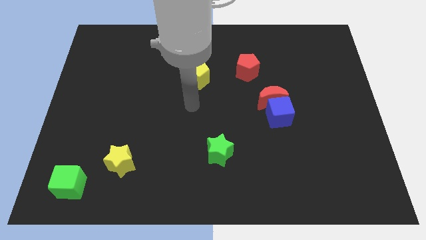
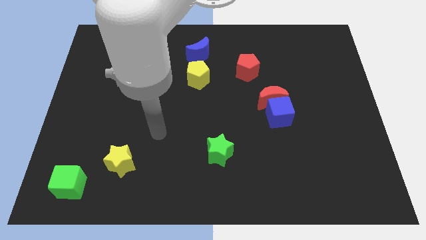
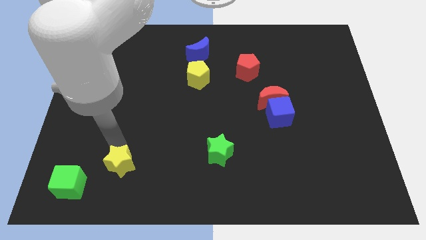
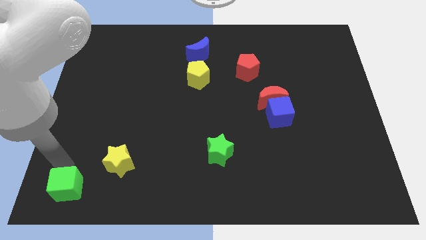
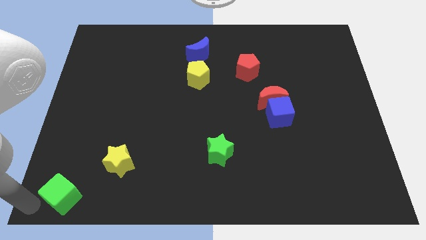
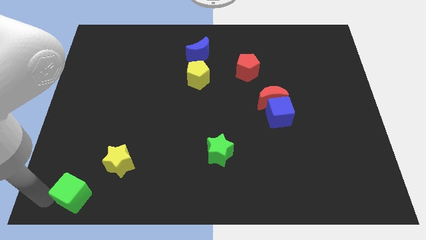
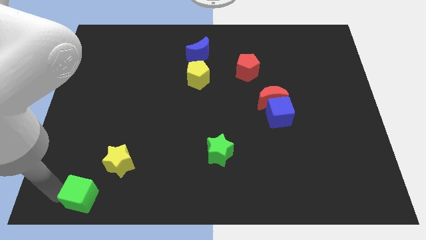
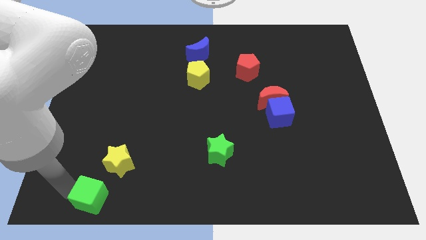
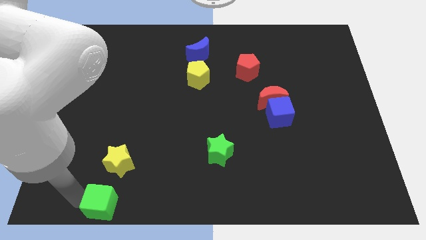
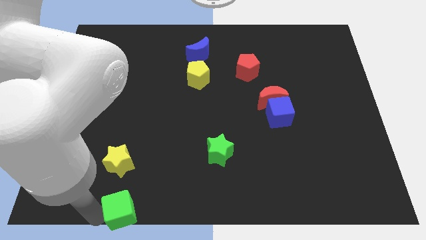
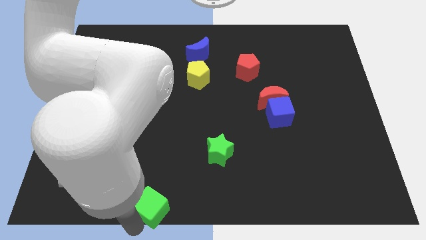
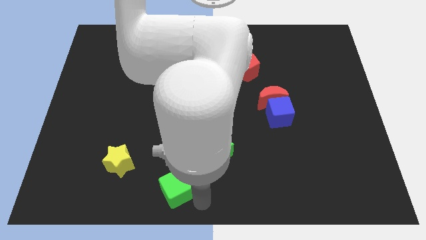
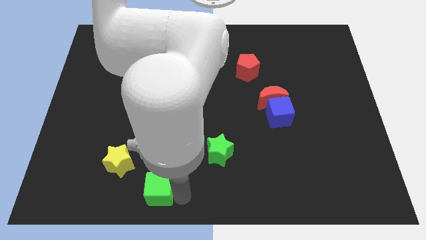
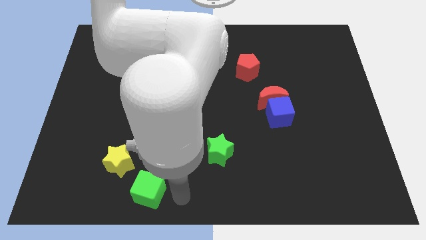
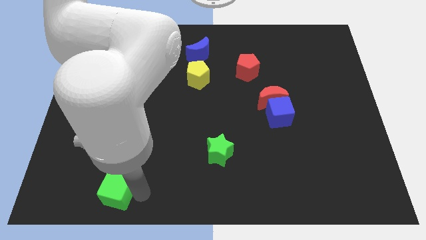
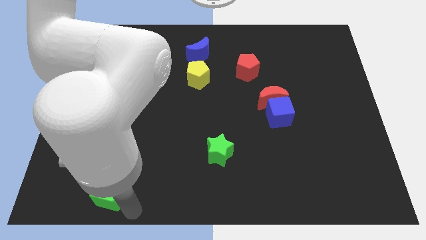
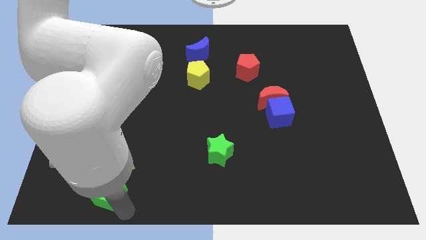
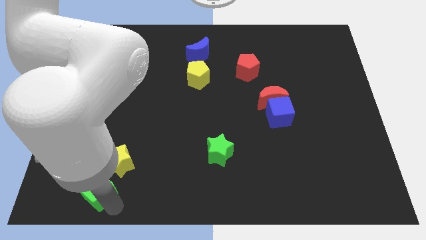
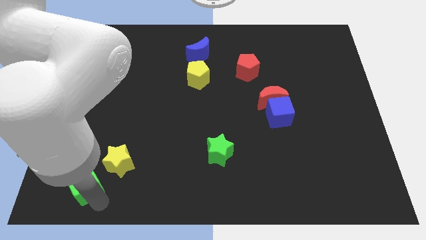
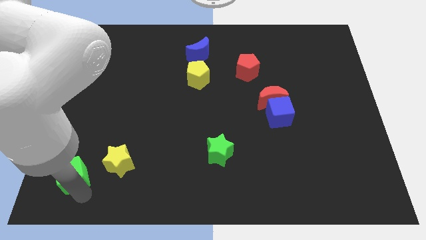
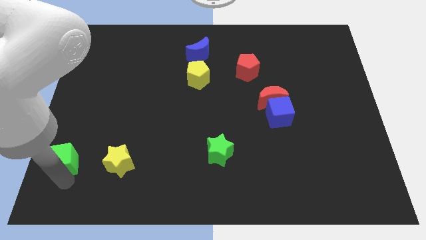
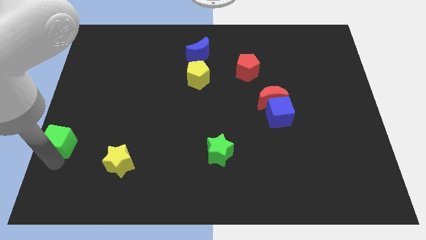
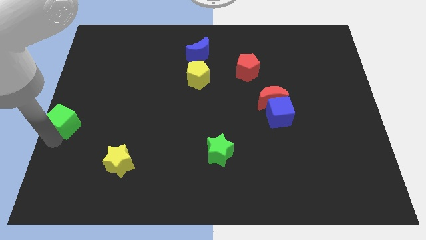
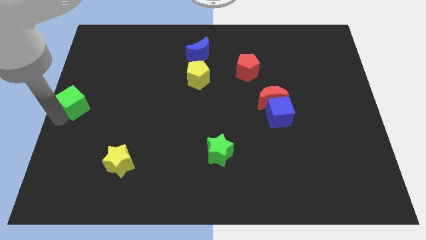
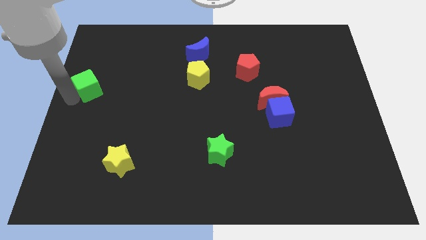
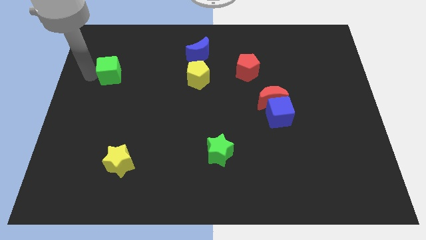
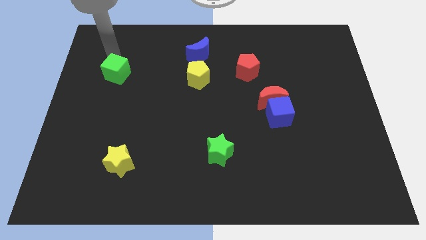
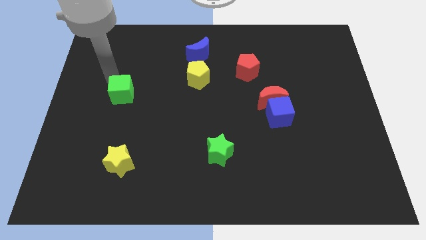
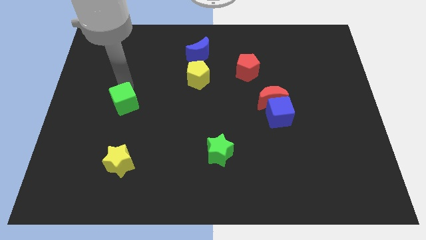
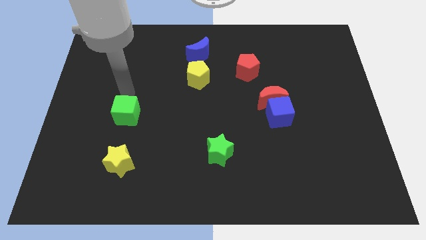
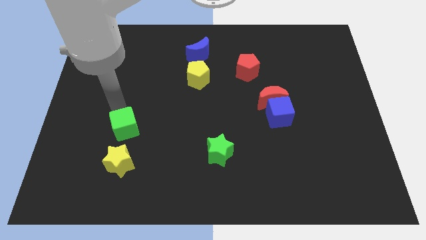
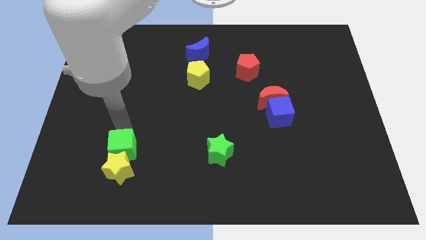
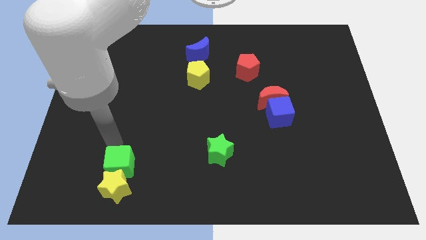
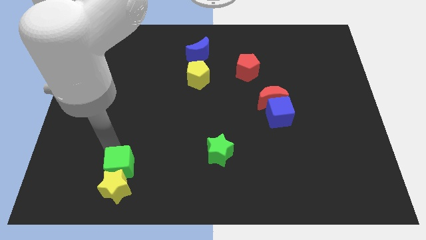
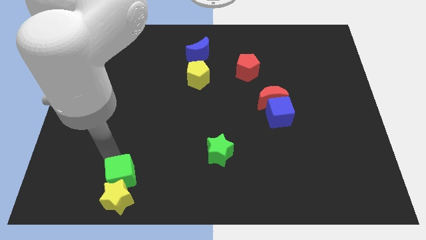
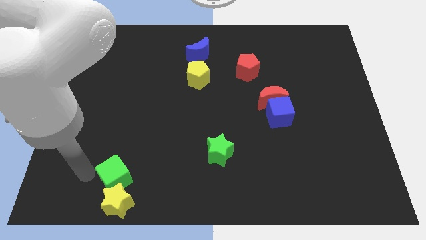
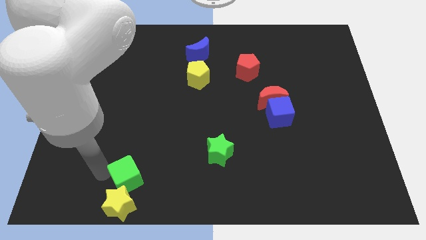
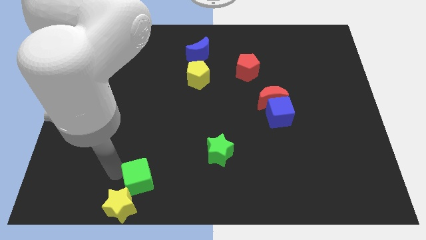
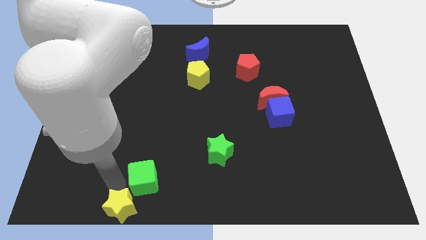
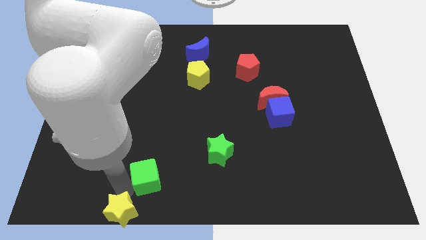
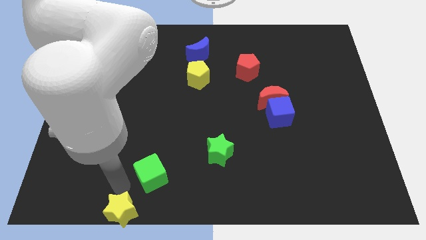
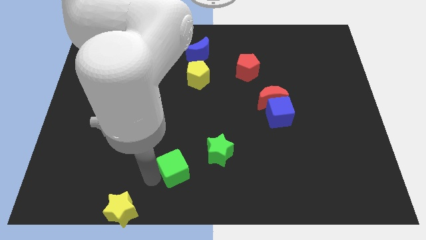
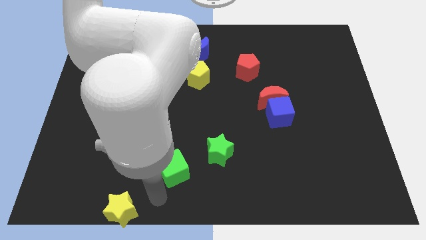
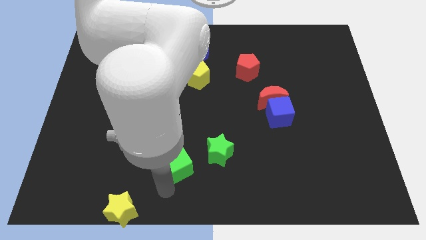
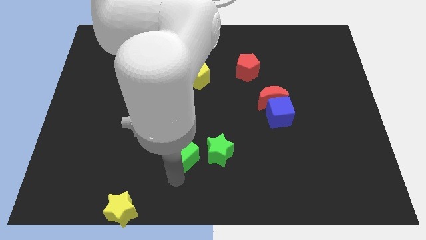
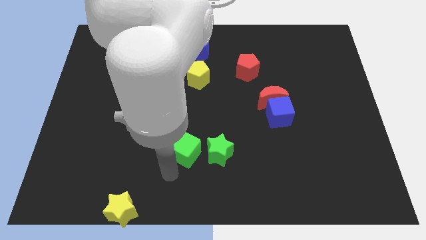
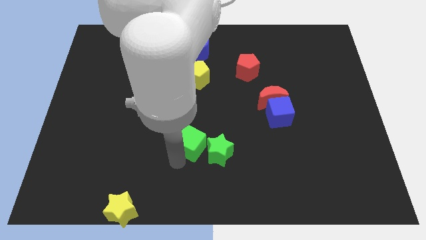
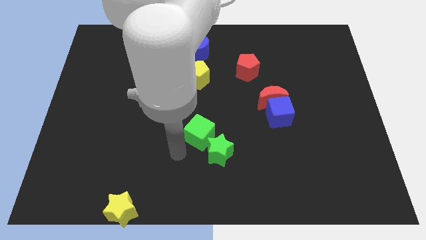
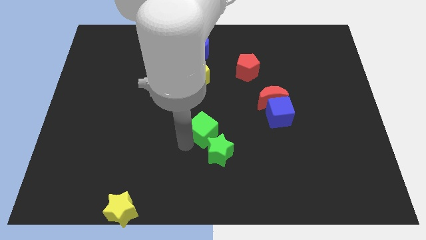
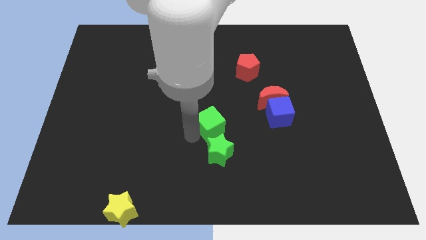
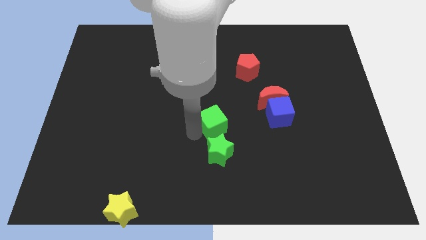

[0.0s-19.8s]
slide the green cube left of the blue cube

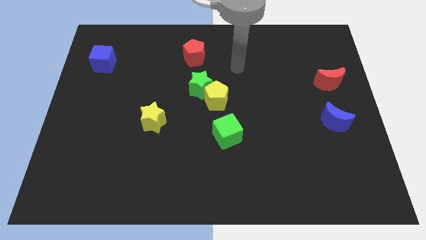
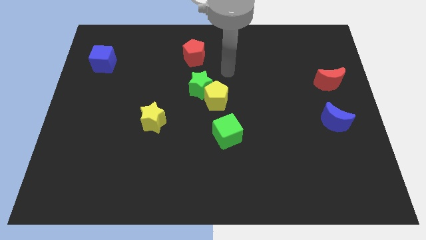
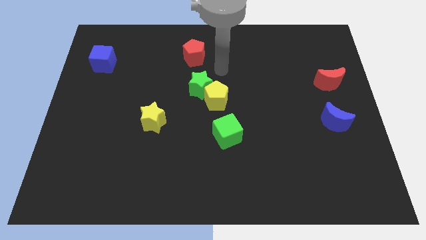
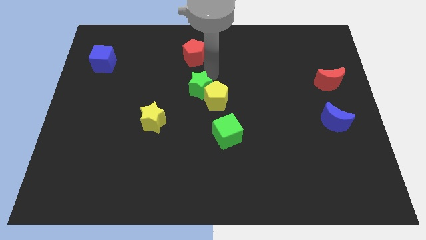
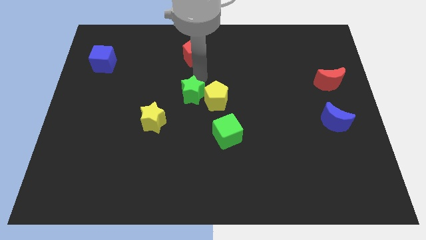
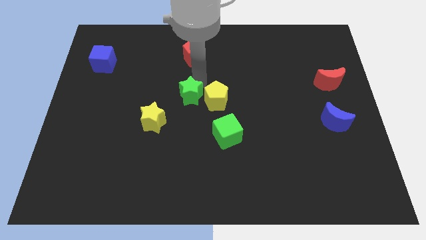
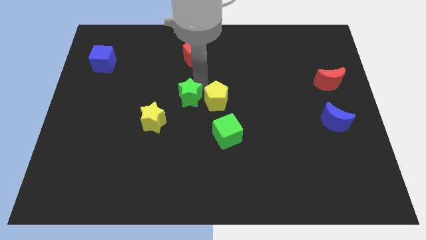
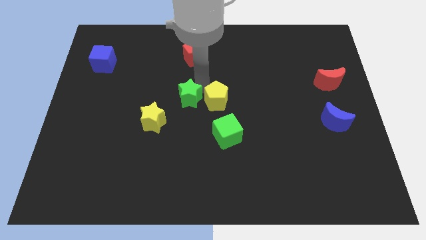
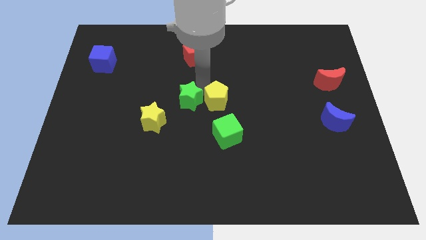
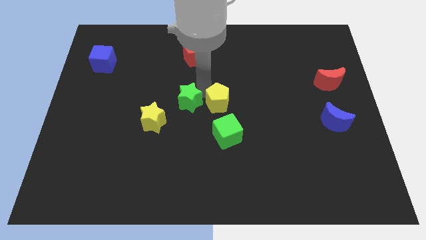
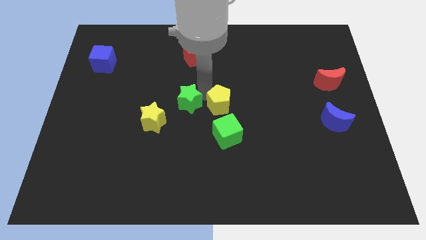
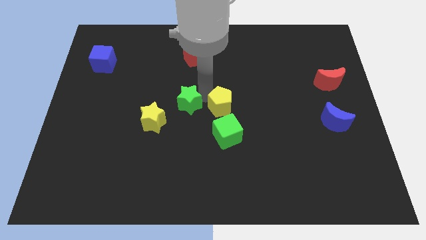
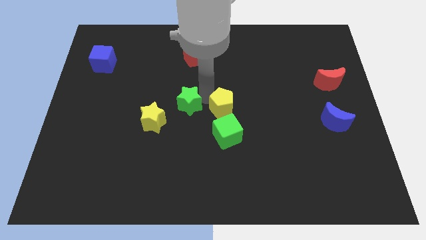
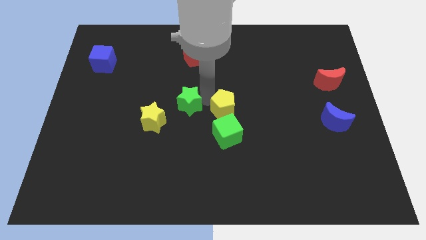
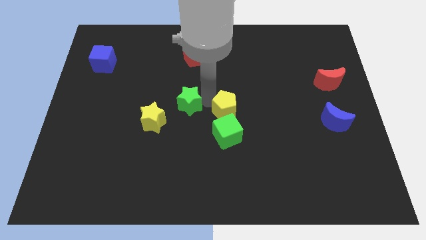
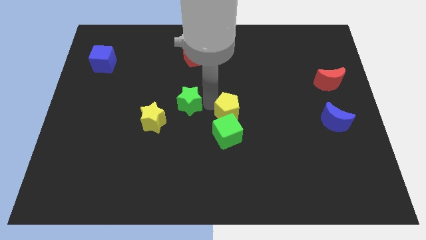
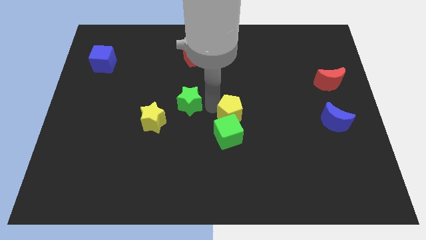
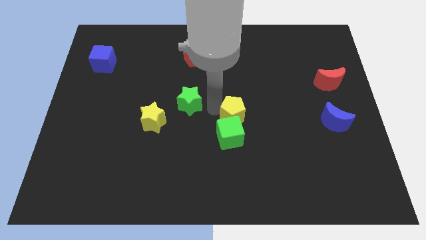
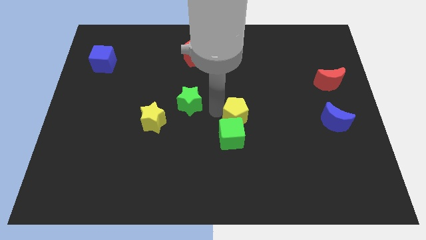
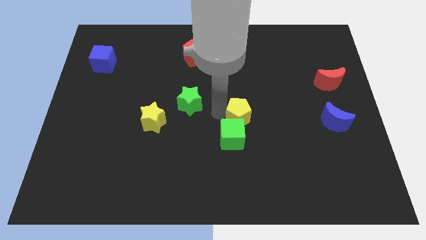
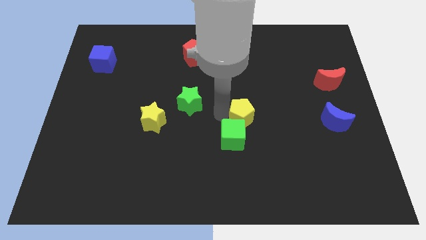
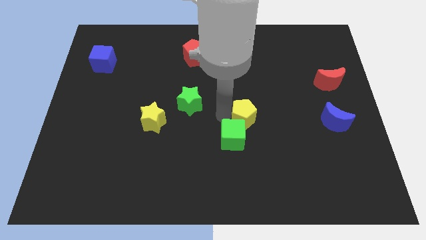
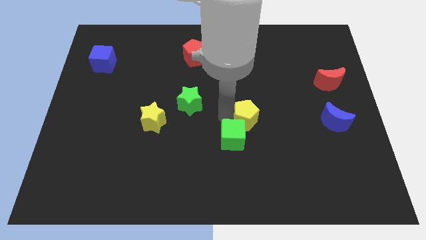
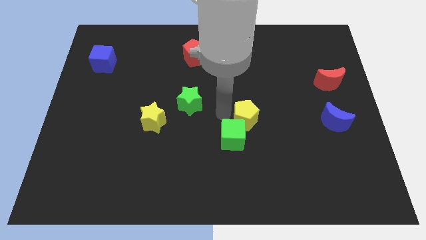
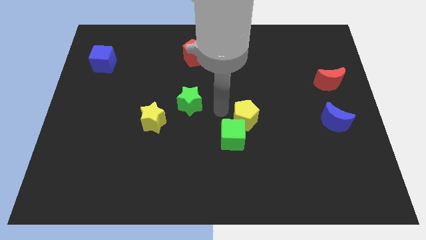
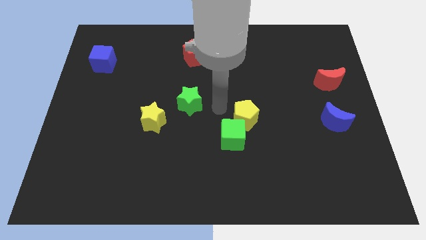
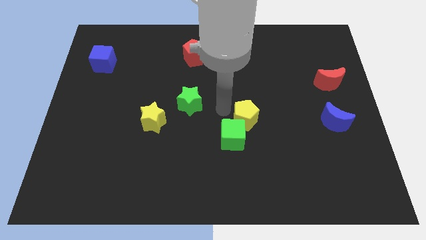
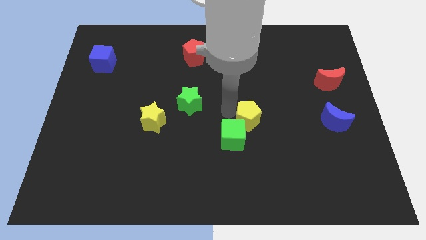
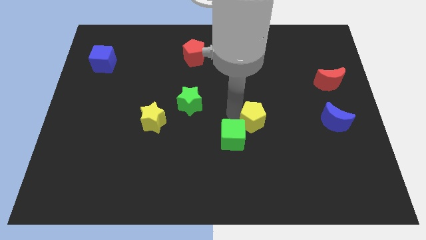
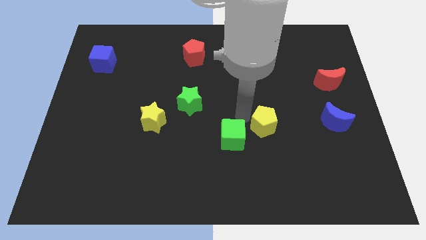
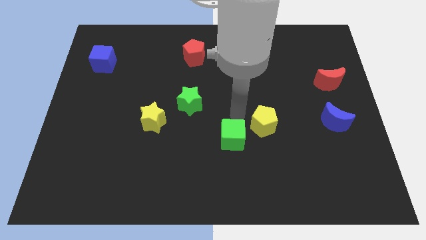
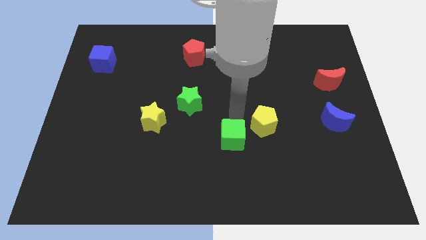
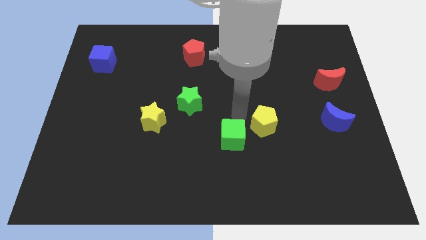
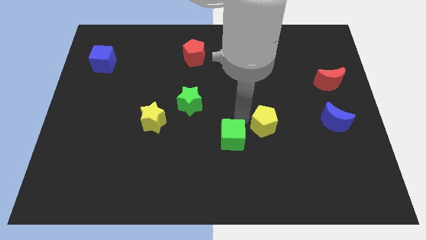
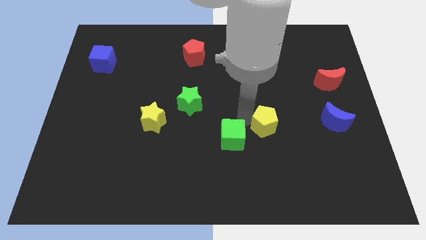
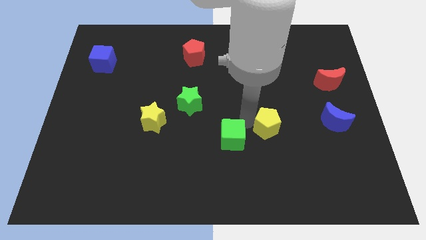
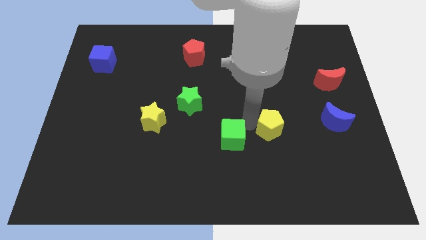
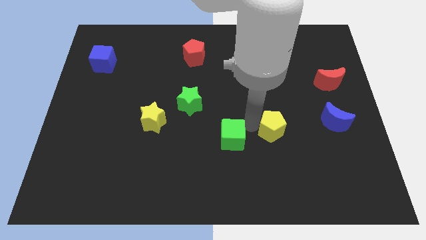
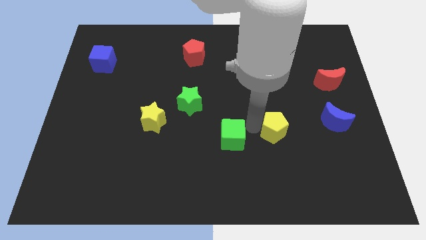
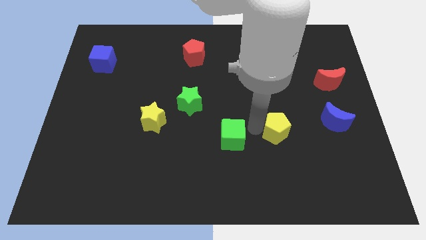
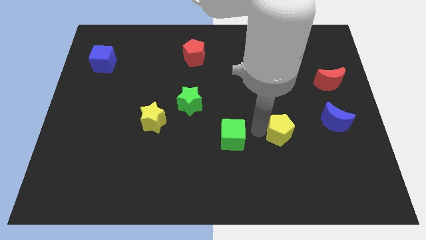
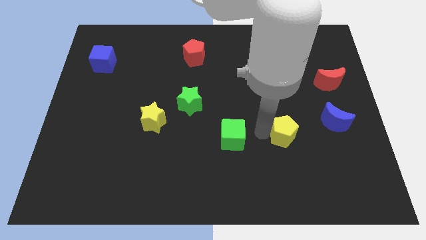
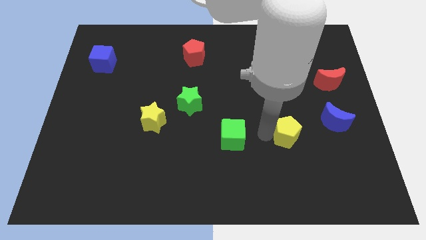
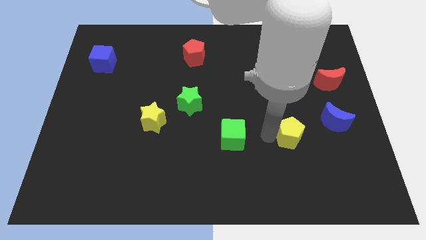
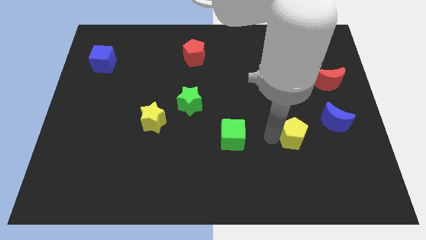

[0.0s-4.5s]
put the yellow pentagon to the bottom left side of the blue moon
